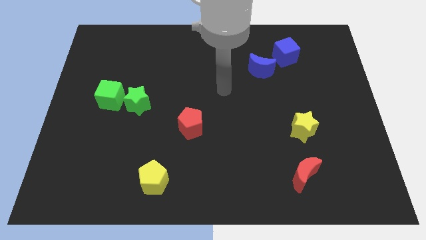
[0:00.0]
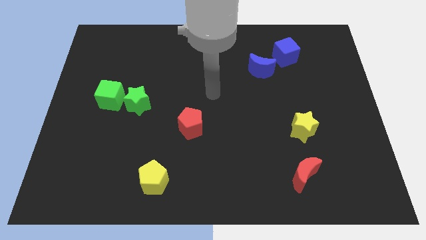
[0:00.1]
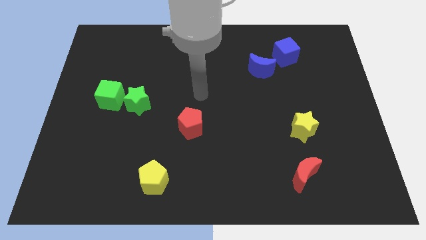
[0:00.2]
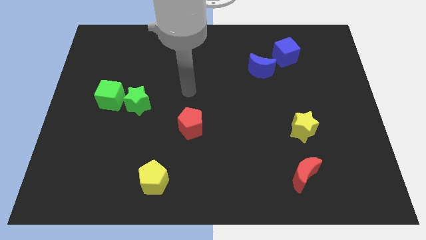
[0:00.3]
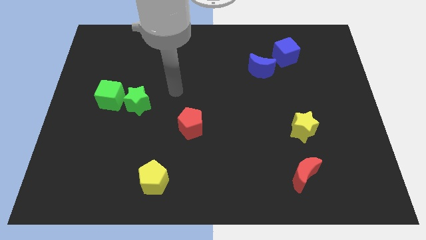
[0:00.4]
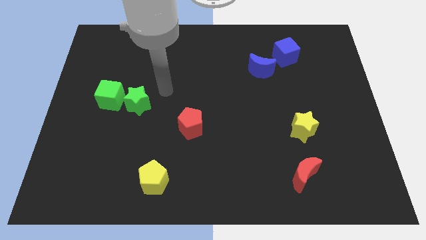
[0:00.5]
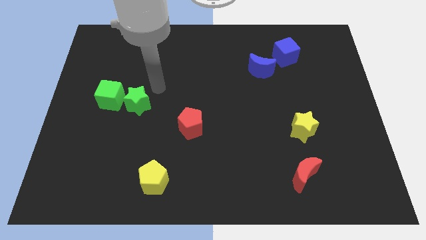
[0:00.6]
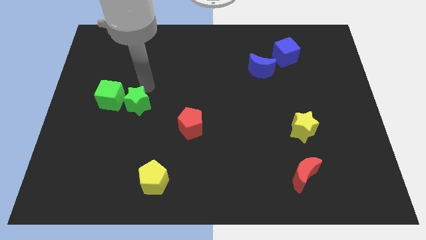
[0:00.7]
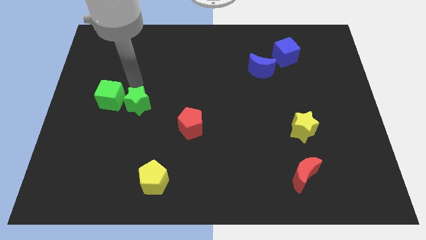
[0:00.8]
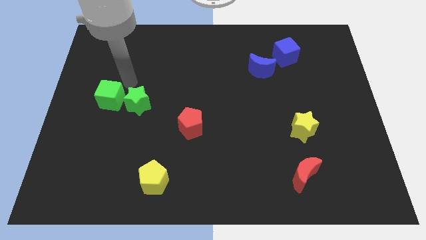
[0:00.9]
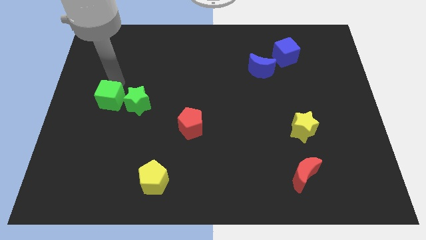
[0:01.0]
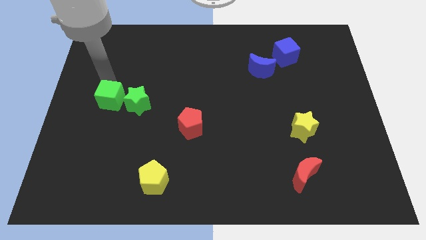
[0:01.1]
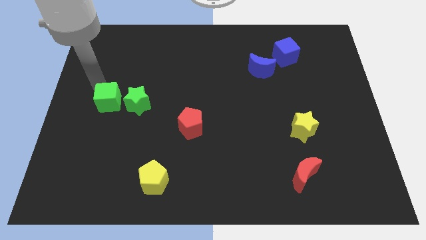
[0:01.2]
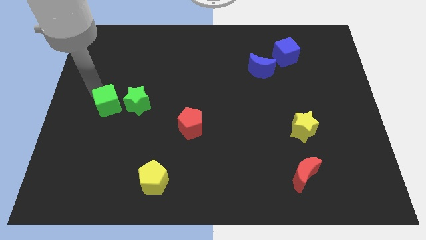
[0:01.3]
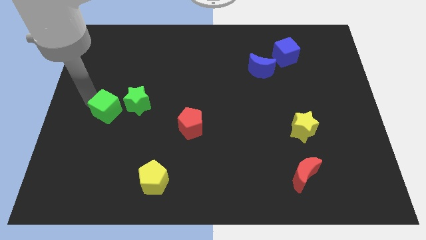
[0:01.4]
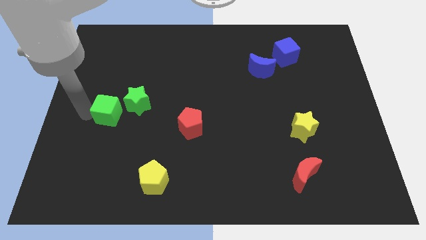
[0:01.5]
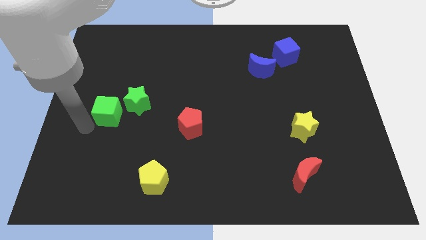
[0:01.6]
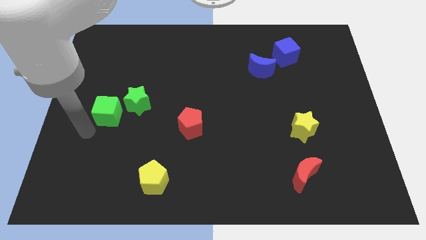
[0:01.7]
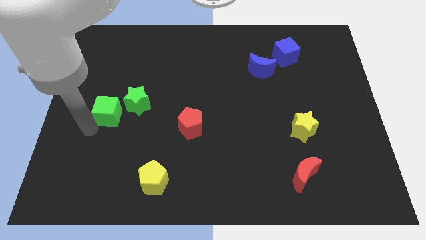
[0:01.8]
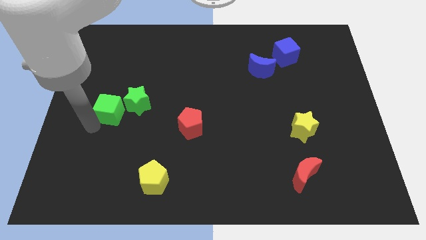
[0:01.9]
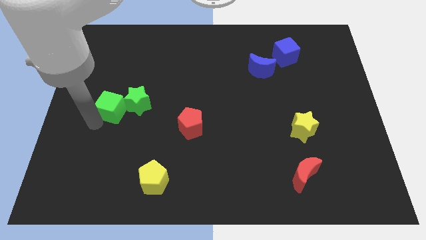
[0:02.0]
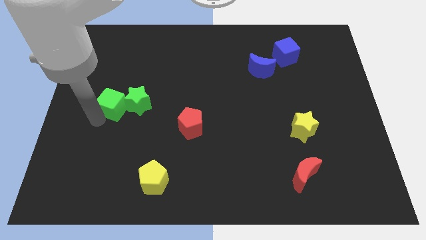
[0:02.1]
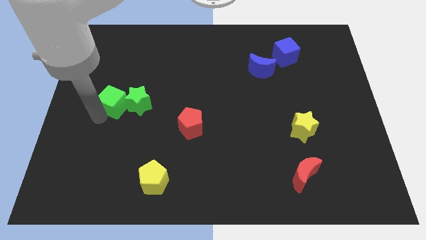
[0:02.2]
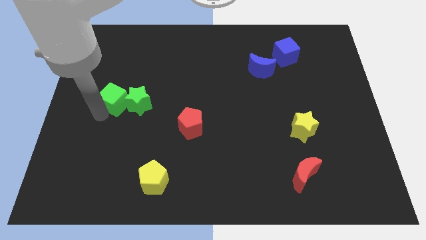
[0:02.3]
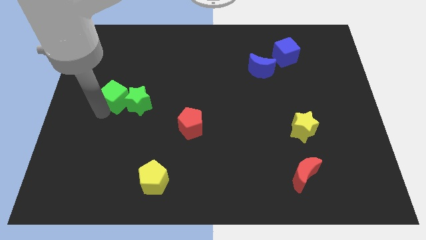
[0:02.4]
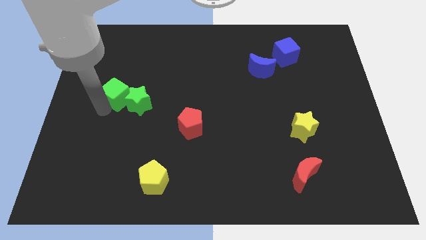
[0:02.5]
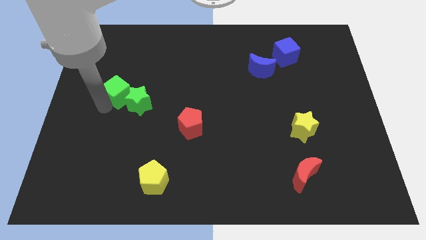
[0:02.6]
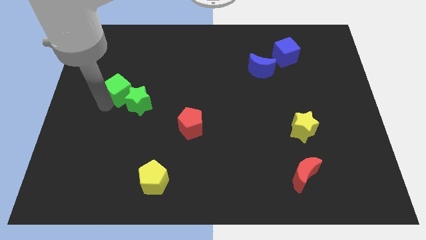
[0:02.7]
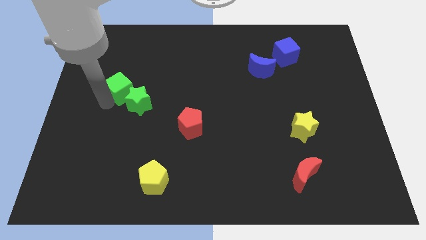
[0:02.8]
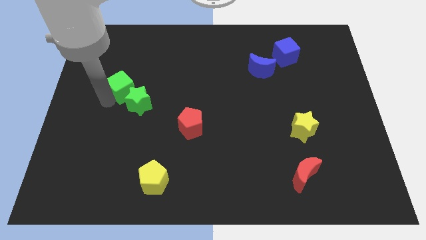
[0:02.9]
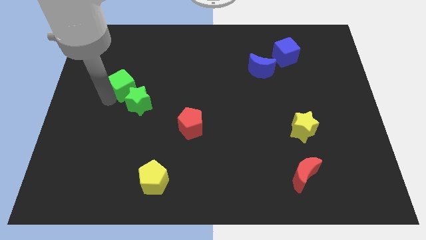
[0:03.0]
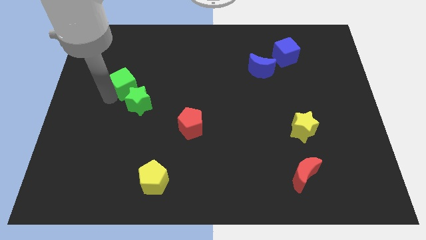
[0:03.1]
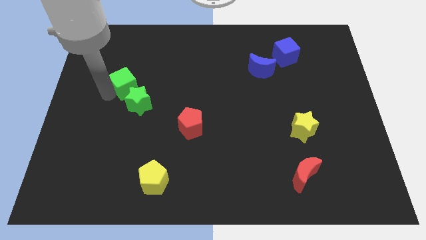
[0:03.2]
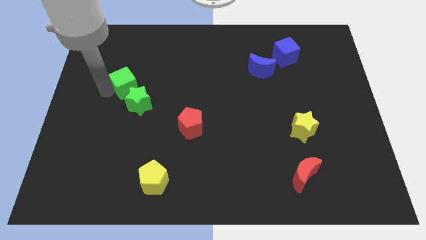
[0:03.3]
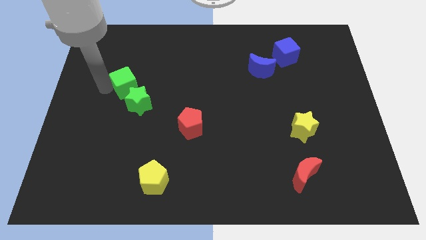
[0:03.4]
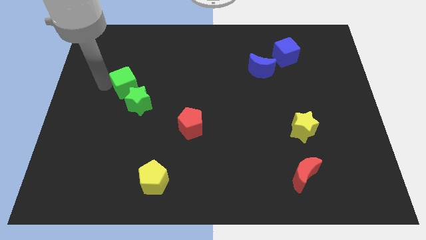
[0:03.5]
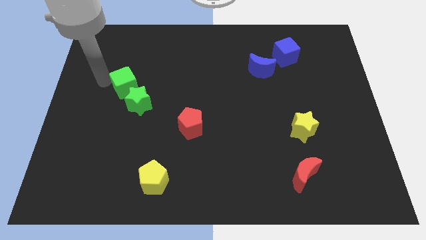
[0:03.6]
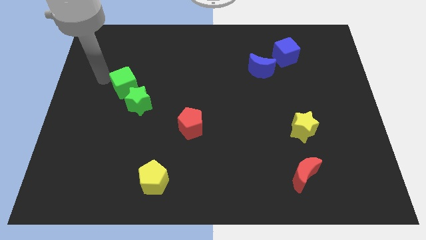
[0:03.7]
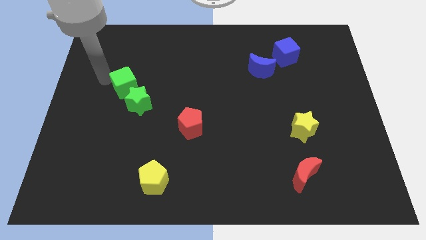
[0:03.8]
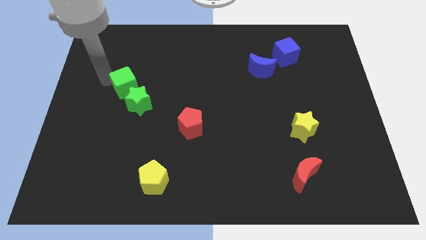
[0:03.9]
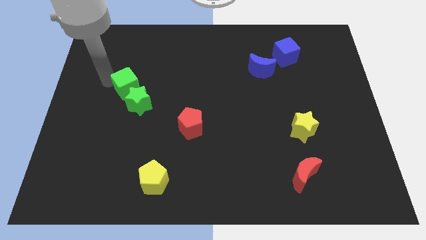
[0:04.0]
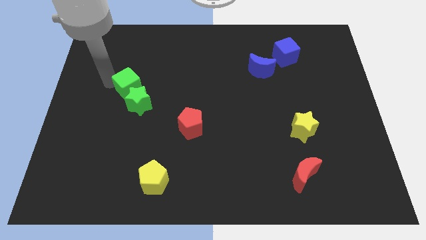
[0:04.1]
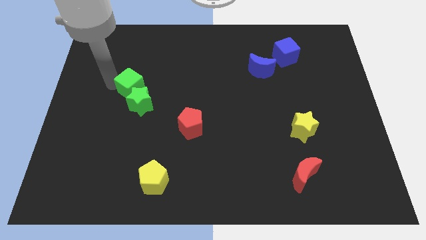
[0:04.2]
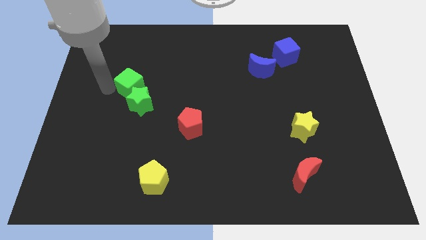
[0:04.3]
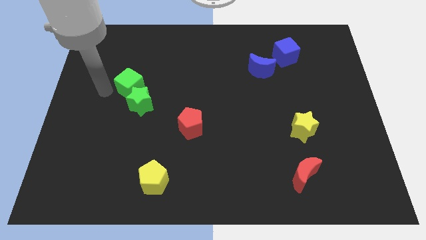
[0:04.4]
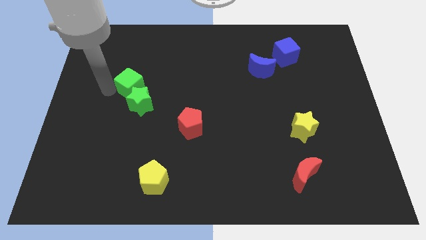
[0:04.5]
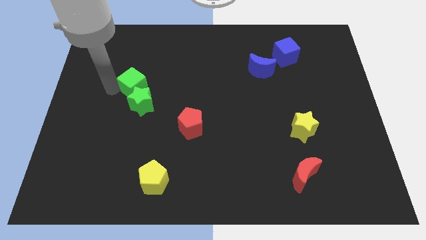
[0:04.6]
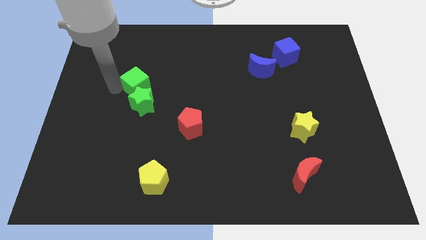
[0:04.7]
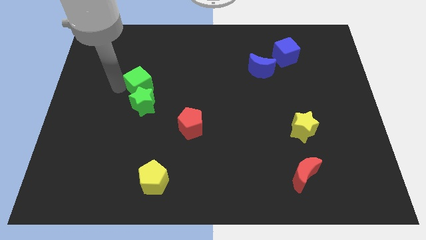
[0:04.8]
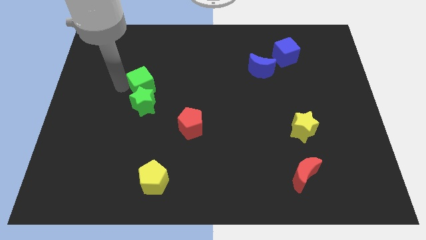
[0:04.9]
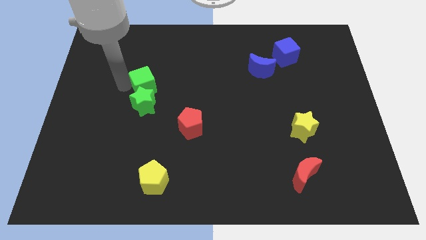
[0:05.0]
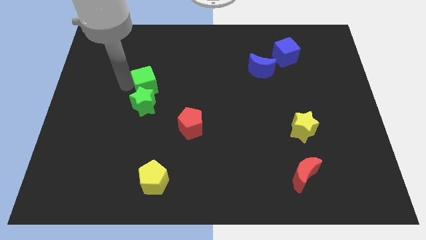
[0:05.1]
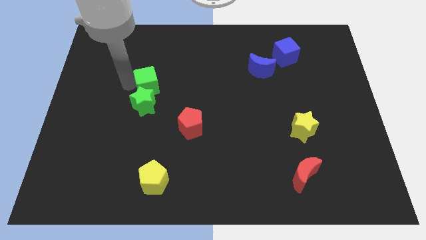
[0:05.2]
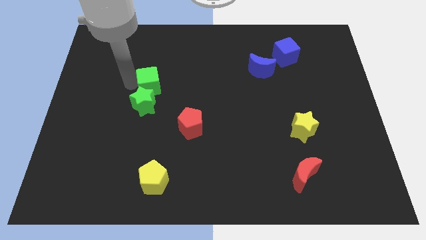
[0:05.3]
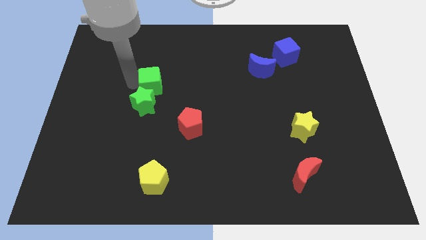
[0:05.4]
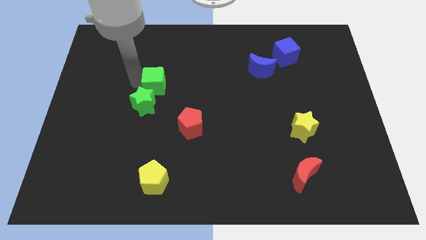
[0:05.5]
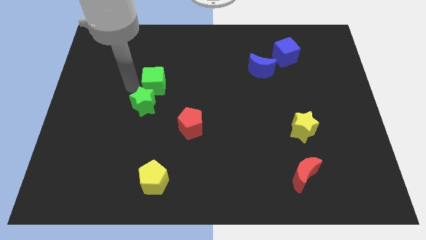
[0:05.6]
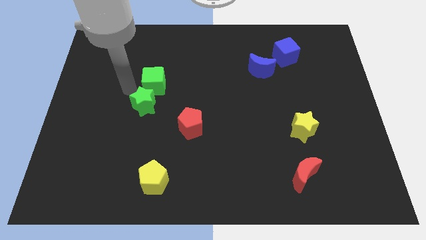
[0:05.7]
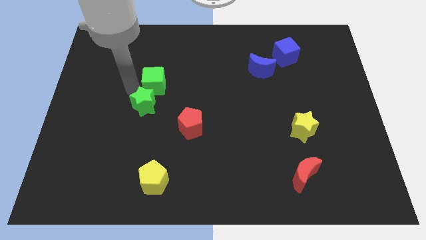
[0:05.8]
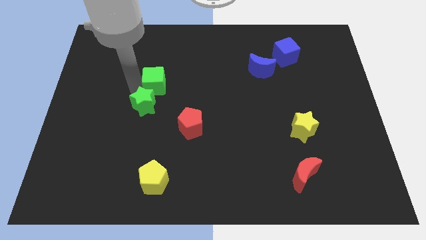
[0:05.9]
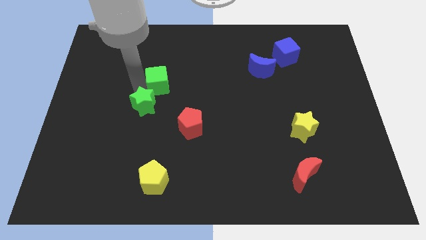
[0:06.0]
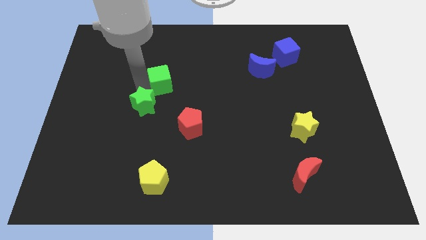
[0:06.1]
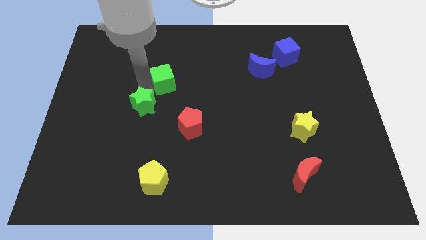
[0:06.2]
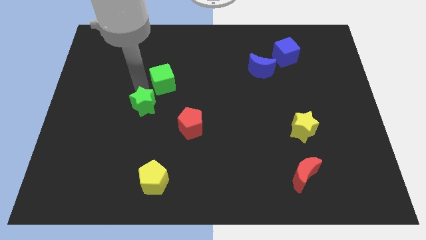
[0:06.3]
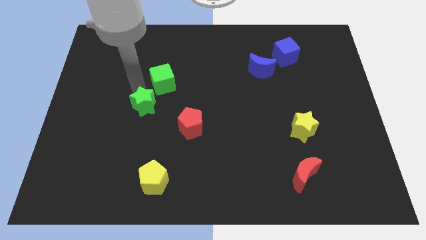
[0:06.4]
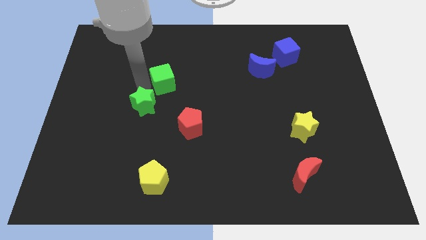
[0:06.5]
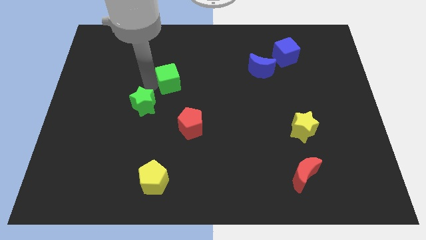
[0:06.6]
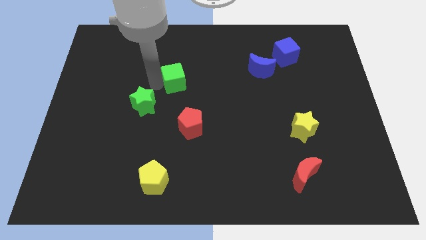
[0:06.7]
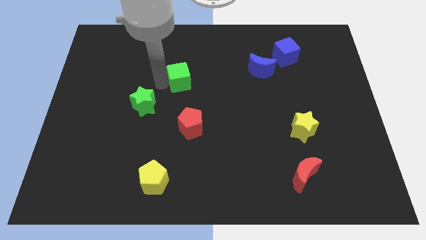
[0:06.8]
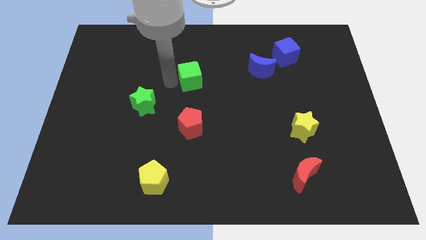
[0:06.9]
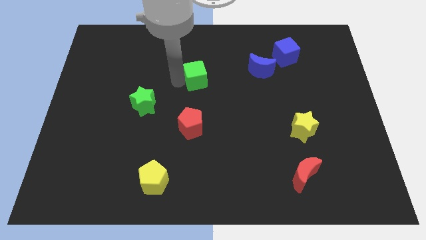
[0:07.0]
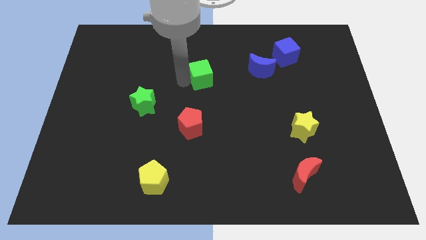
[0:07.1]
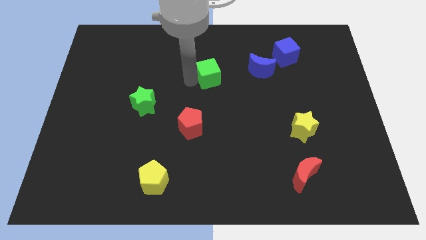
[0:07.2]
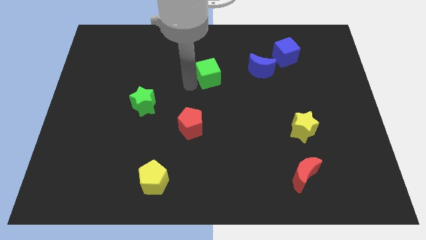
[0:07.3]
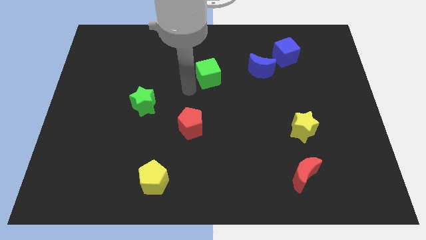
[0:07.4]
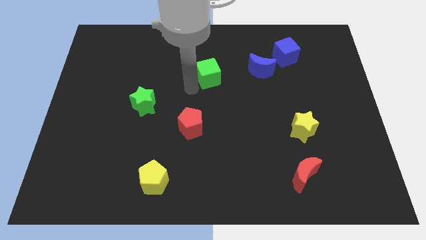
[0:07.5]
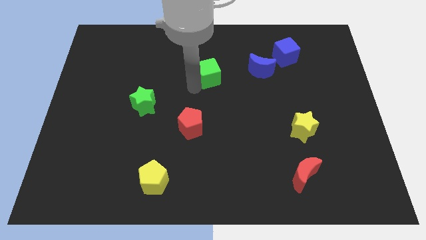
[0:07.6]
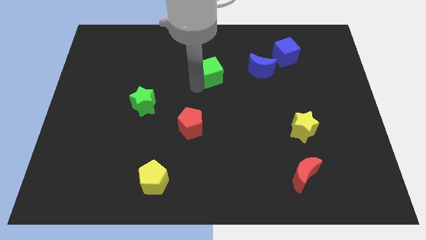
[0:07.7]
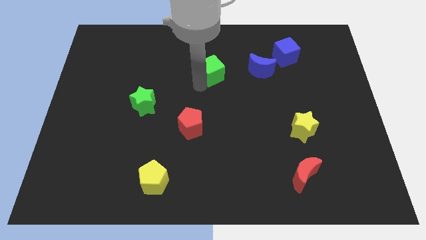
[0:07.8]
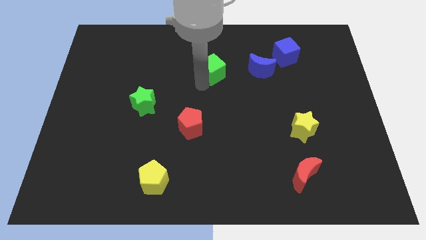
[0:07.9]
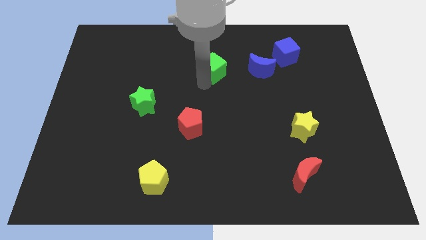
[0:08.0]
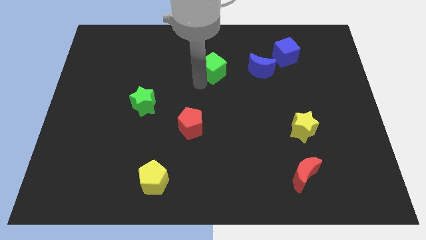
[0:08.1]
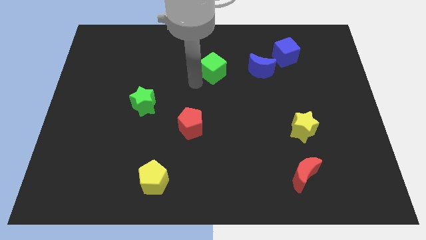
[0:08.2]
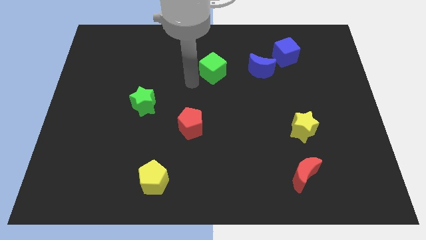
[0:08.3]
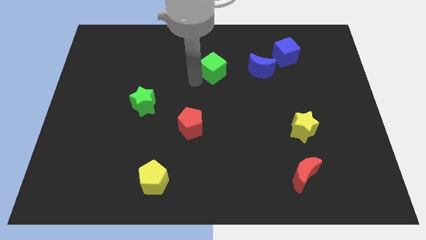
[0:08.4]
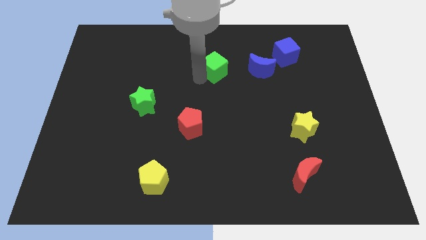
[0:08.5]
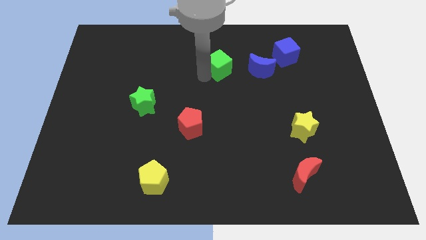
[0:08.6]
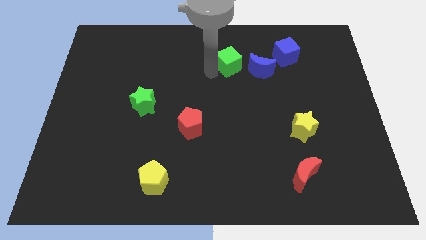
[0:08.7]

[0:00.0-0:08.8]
put the green cube left of the blue cube
